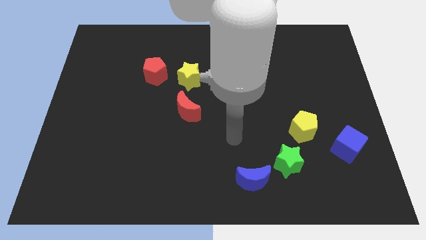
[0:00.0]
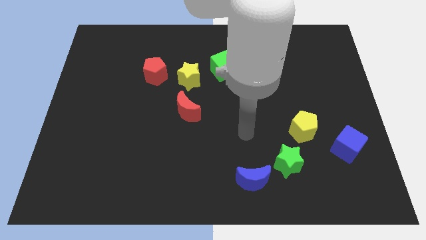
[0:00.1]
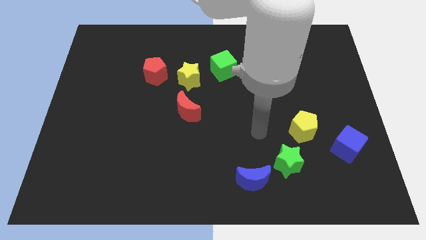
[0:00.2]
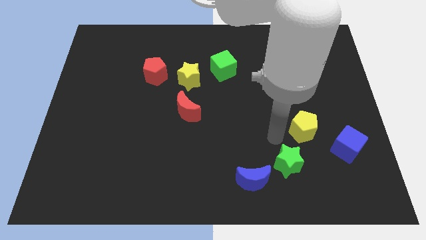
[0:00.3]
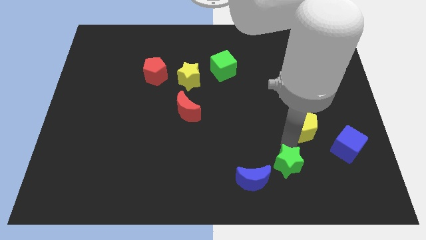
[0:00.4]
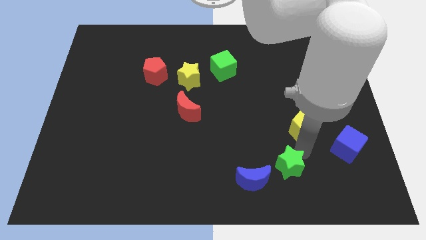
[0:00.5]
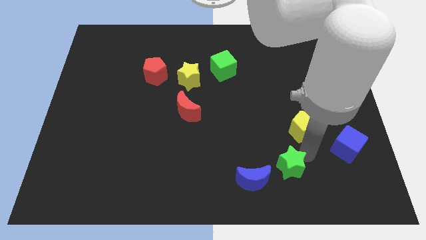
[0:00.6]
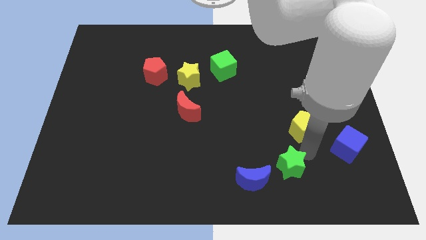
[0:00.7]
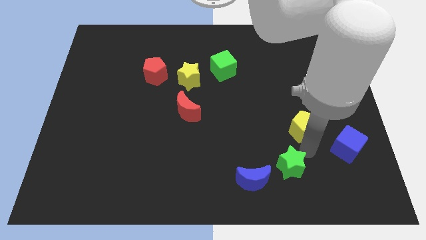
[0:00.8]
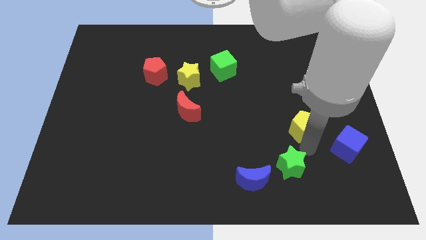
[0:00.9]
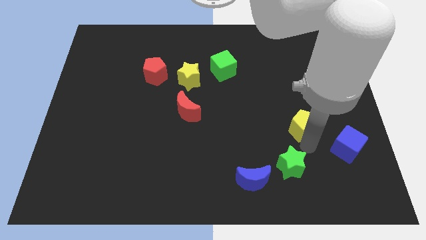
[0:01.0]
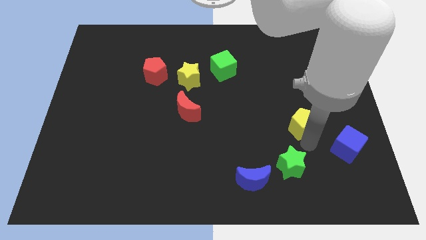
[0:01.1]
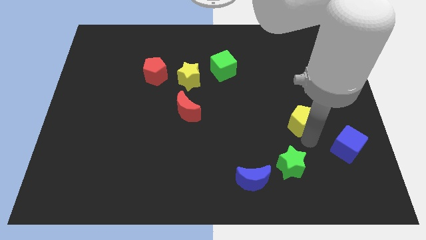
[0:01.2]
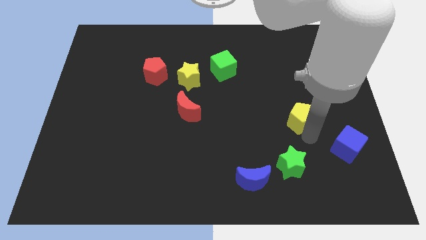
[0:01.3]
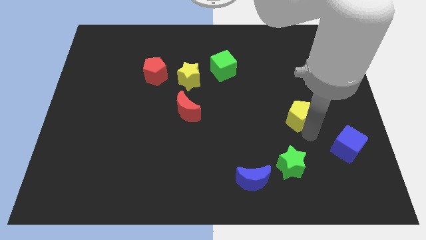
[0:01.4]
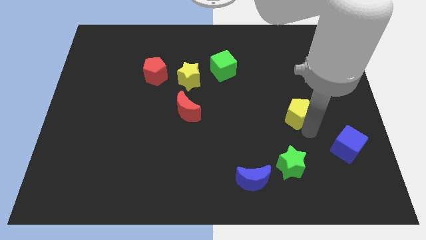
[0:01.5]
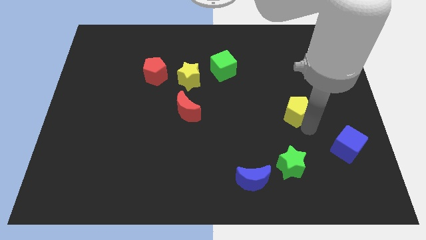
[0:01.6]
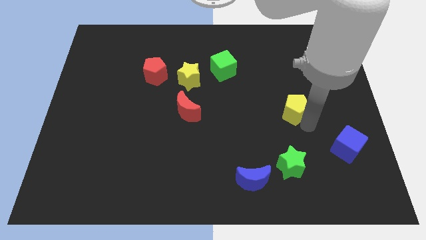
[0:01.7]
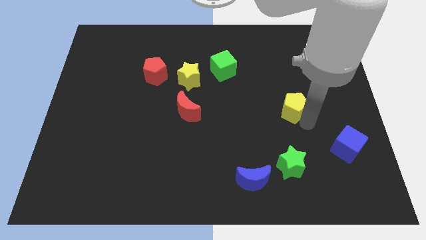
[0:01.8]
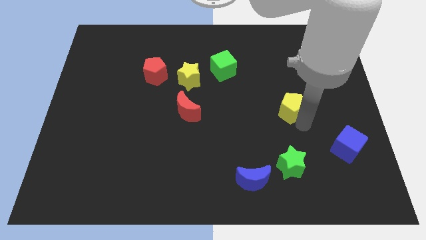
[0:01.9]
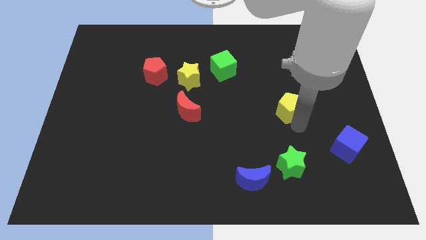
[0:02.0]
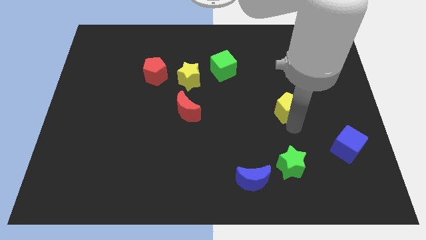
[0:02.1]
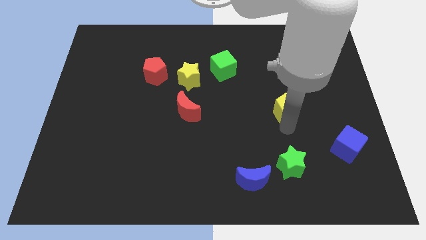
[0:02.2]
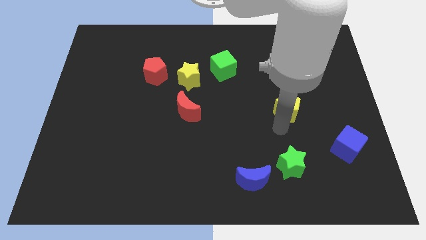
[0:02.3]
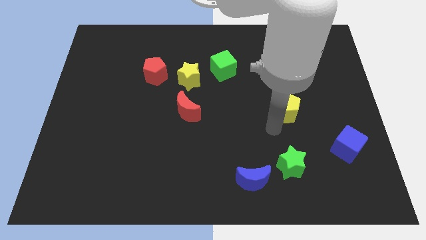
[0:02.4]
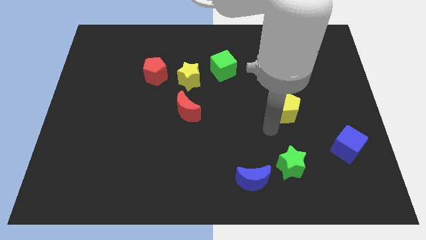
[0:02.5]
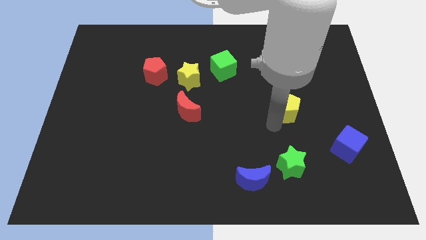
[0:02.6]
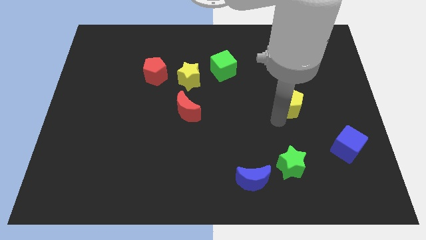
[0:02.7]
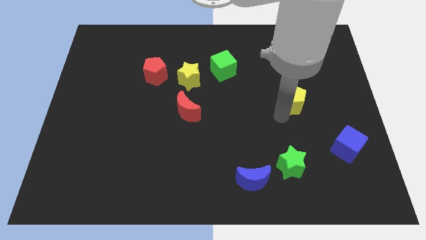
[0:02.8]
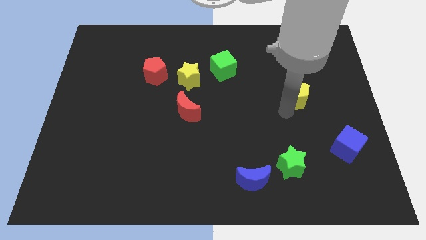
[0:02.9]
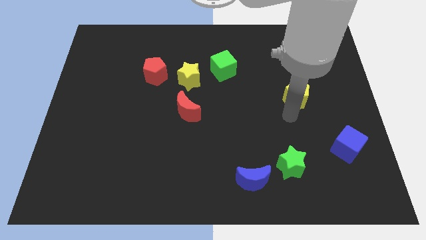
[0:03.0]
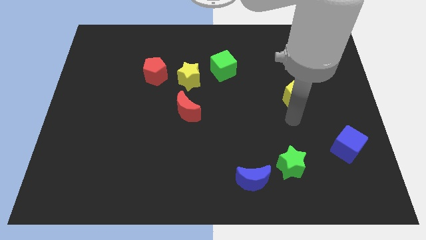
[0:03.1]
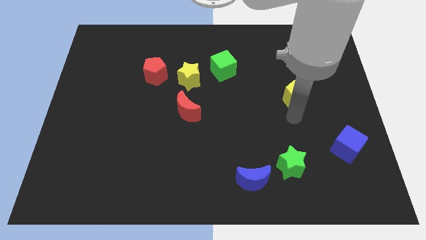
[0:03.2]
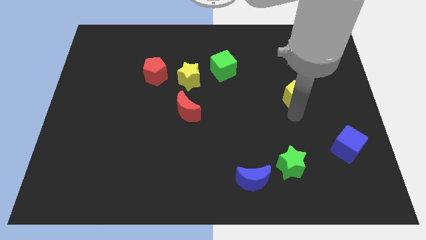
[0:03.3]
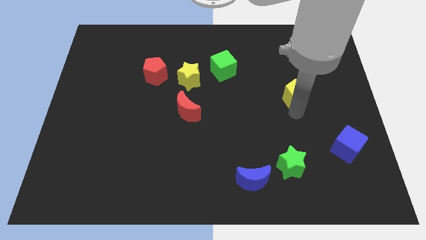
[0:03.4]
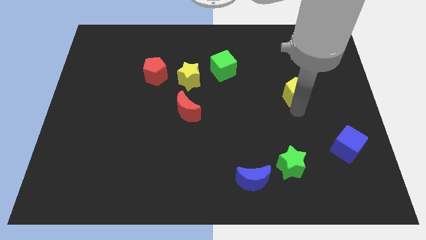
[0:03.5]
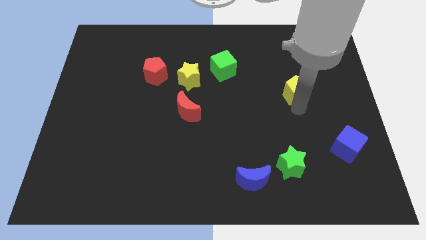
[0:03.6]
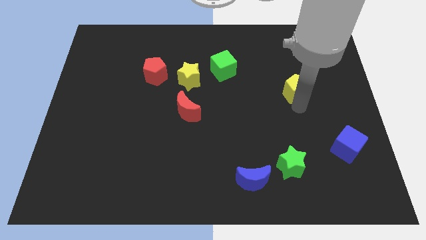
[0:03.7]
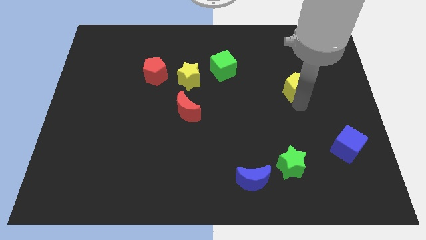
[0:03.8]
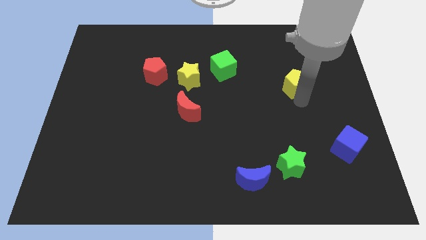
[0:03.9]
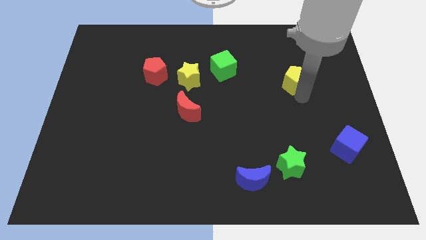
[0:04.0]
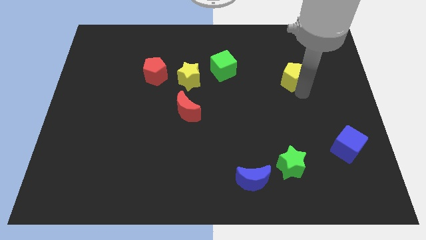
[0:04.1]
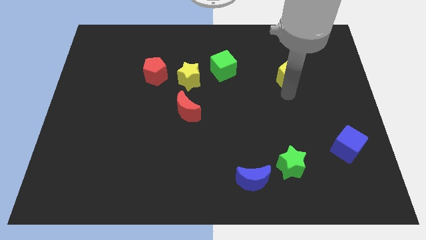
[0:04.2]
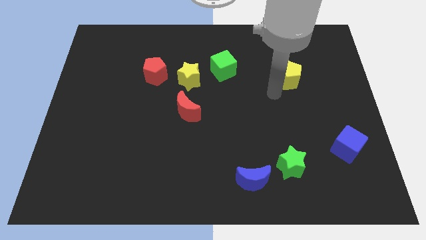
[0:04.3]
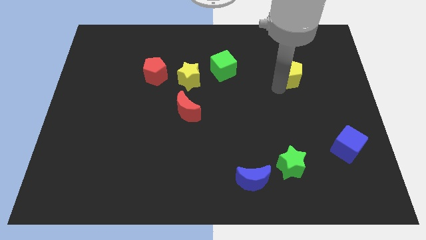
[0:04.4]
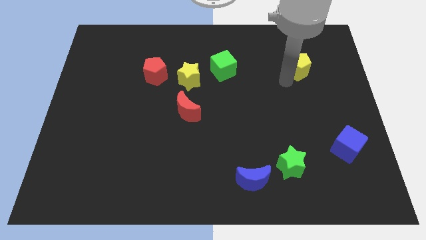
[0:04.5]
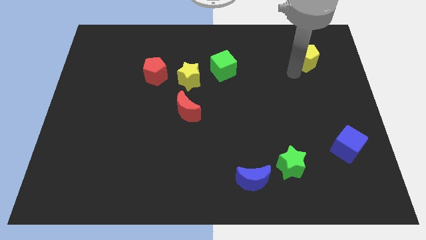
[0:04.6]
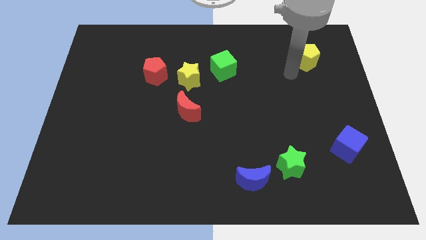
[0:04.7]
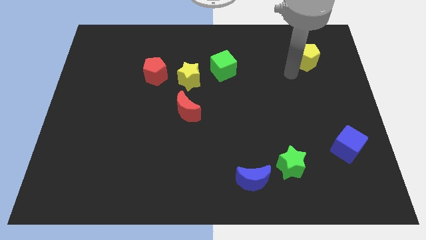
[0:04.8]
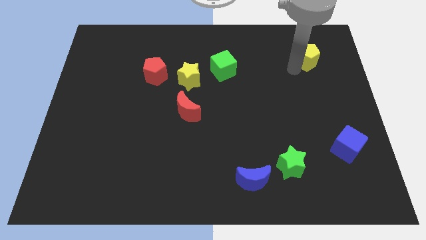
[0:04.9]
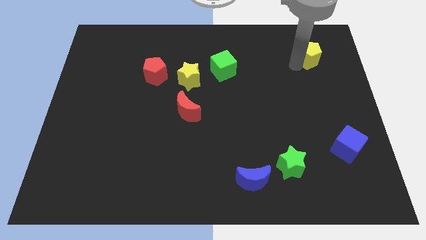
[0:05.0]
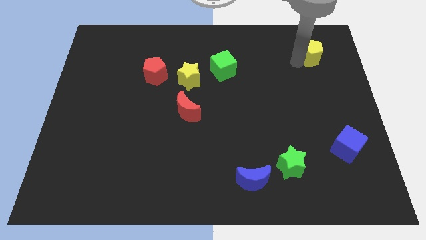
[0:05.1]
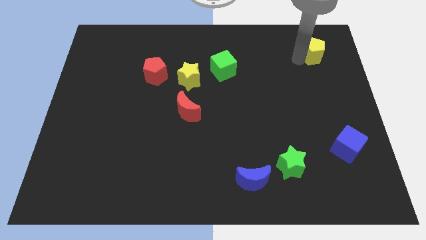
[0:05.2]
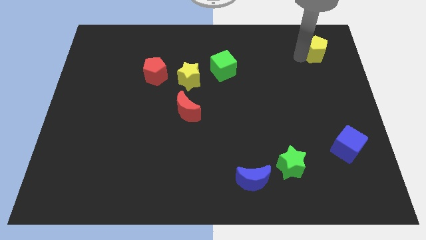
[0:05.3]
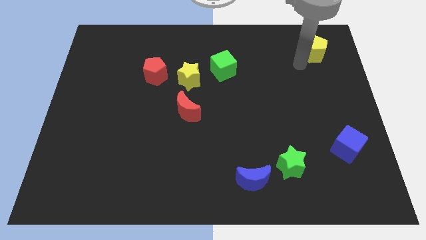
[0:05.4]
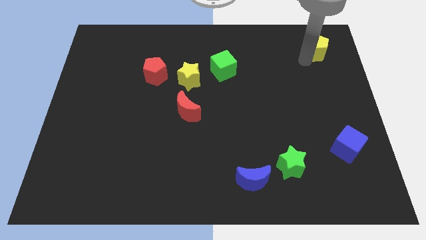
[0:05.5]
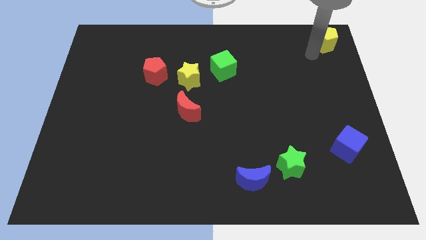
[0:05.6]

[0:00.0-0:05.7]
push the yellow pentagon to the top right of the board

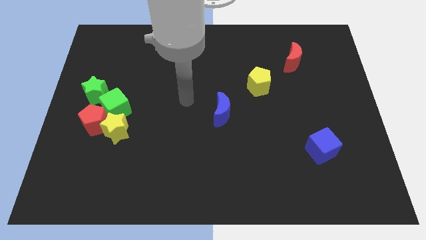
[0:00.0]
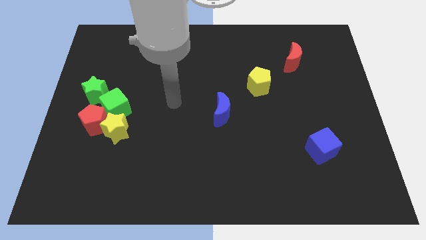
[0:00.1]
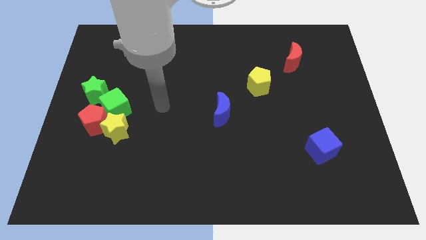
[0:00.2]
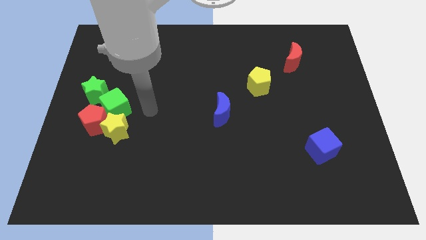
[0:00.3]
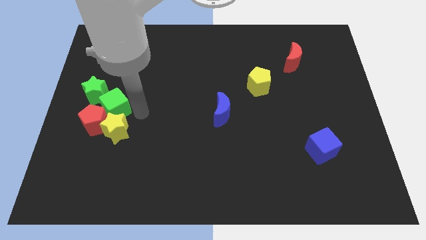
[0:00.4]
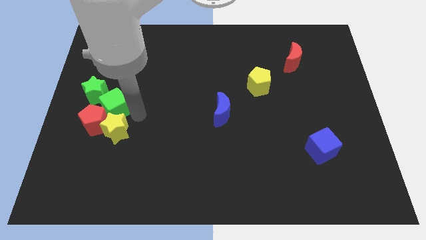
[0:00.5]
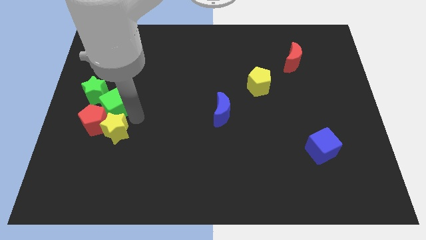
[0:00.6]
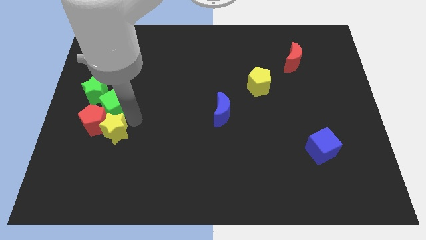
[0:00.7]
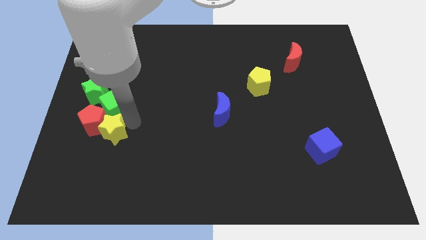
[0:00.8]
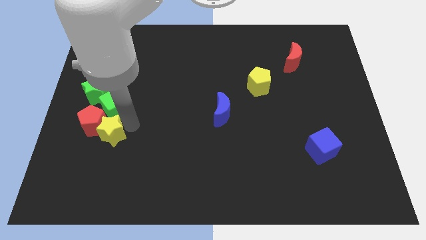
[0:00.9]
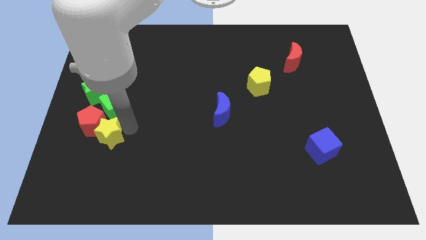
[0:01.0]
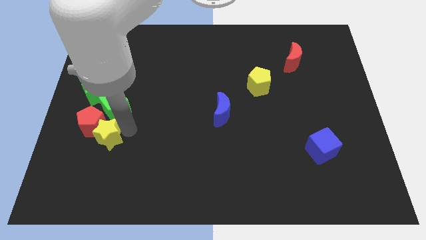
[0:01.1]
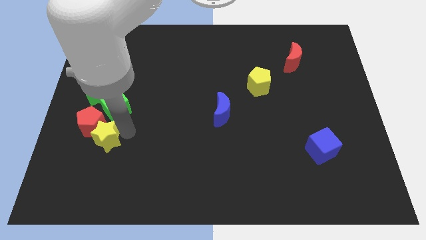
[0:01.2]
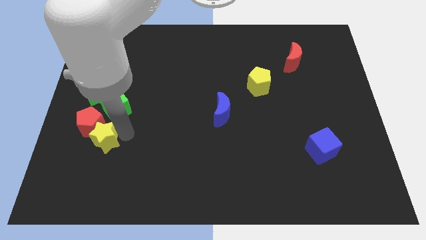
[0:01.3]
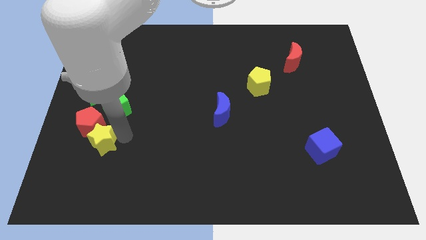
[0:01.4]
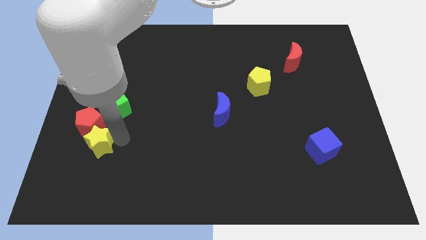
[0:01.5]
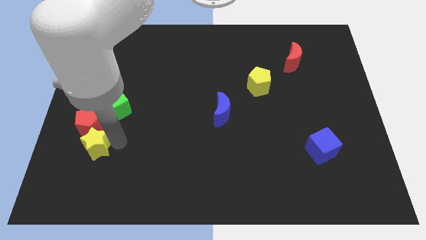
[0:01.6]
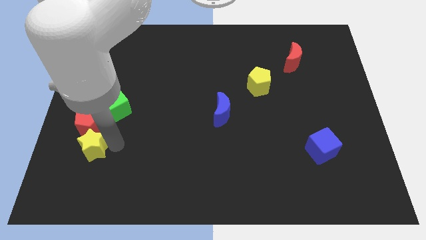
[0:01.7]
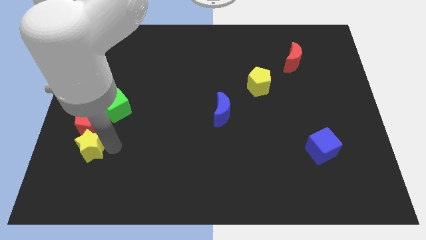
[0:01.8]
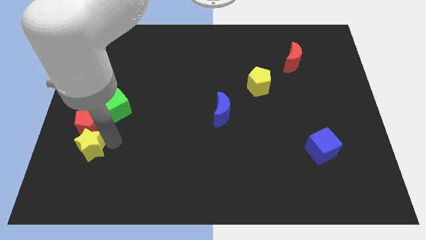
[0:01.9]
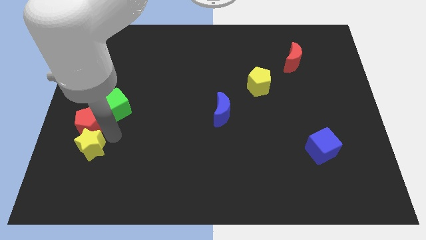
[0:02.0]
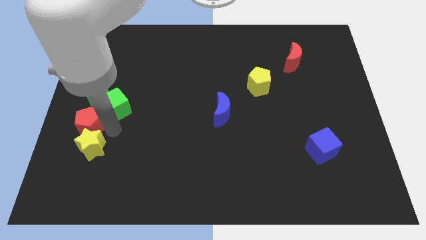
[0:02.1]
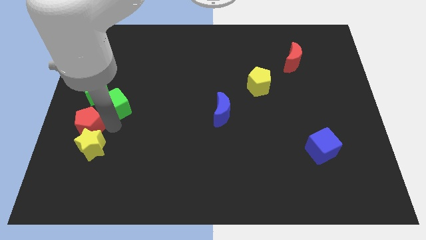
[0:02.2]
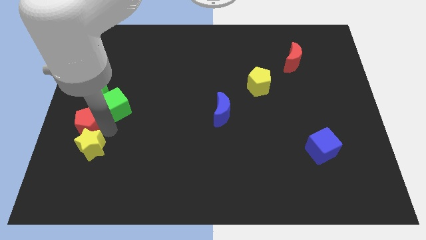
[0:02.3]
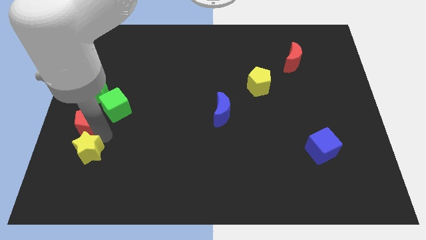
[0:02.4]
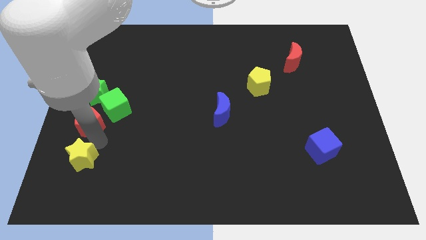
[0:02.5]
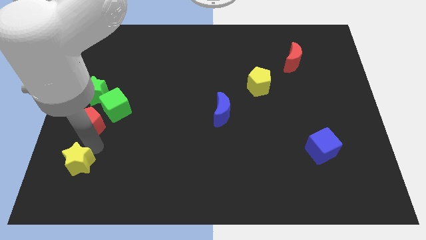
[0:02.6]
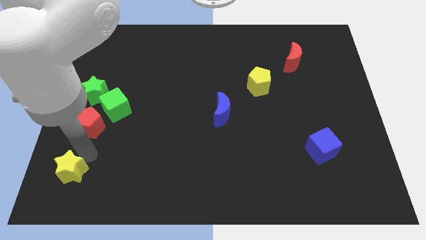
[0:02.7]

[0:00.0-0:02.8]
move the yellow star to the bottom left of the board
